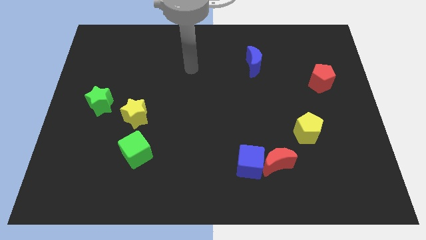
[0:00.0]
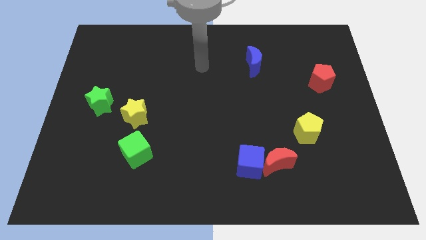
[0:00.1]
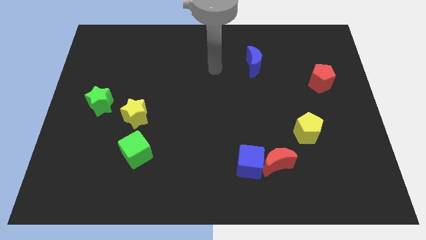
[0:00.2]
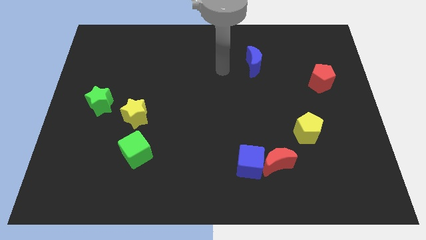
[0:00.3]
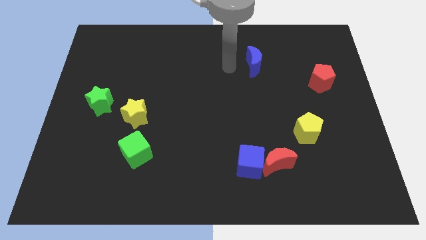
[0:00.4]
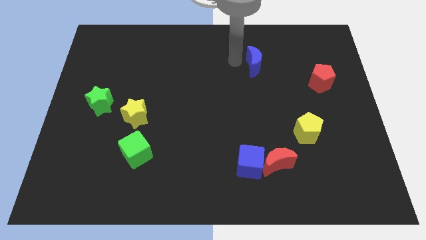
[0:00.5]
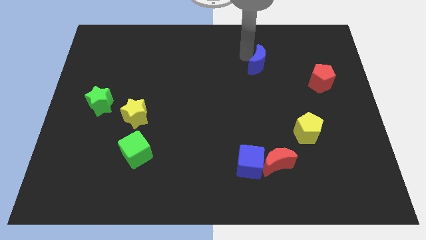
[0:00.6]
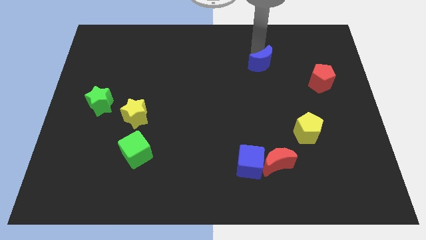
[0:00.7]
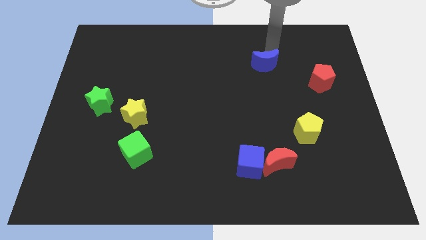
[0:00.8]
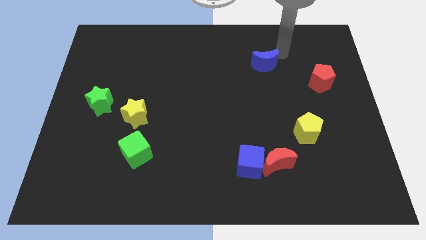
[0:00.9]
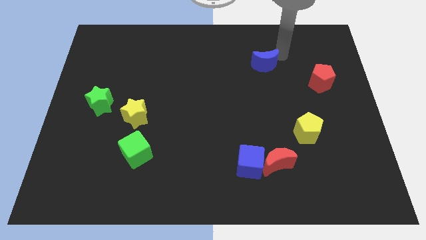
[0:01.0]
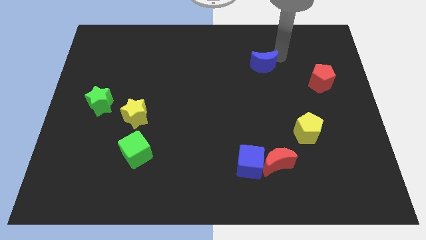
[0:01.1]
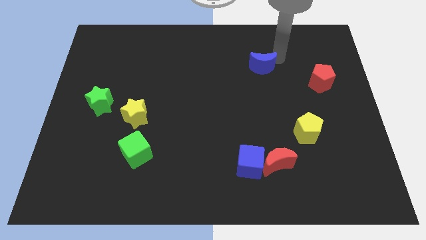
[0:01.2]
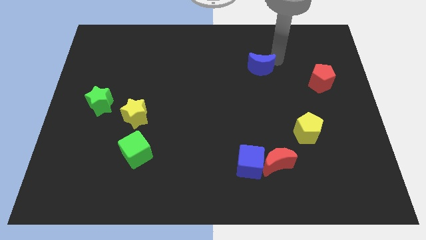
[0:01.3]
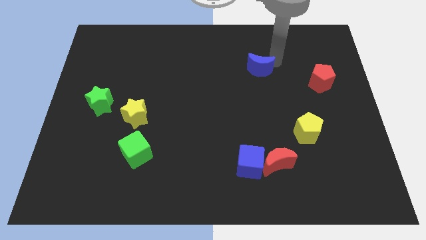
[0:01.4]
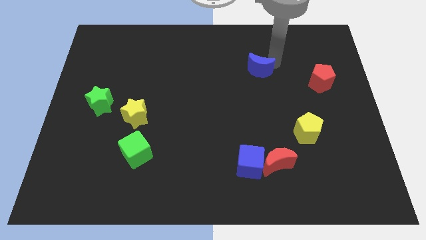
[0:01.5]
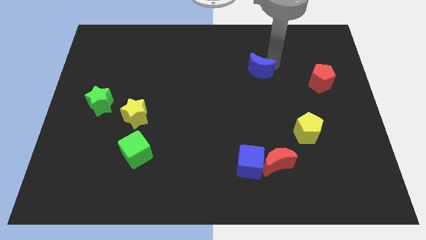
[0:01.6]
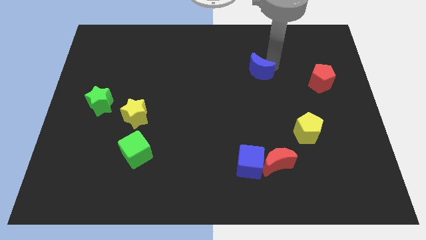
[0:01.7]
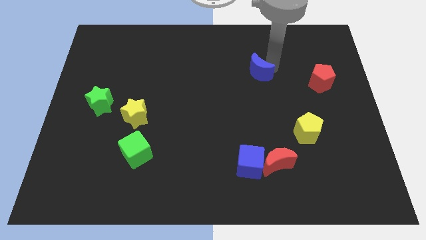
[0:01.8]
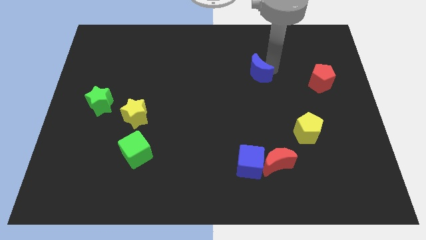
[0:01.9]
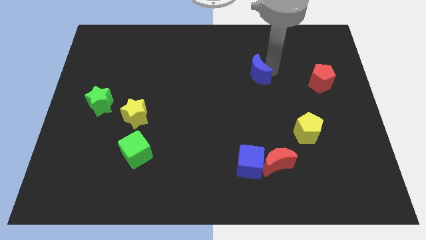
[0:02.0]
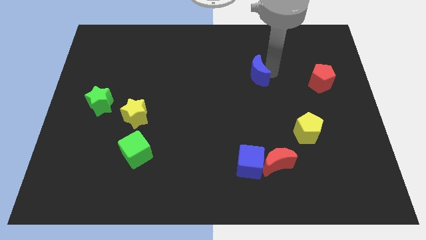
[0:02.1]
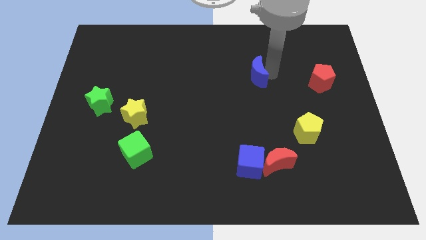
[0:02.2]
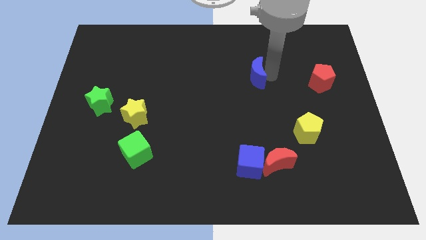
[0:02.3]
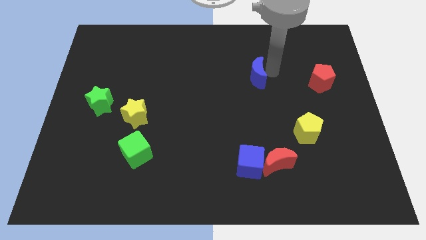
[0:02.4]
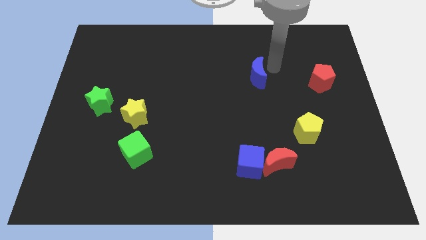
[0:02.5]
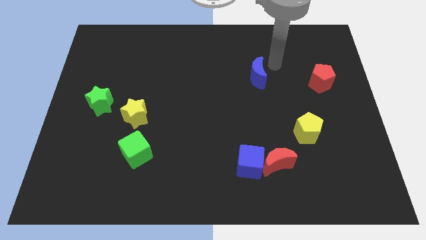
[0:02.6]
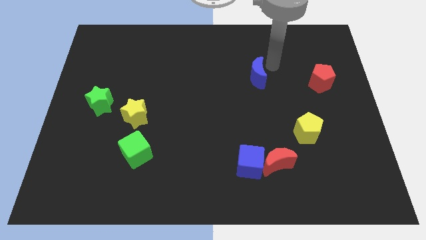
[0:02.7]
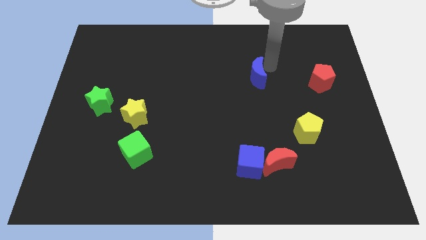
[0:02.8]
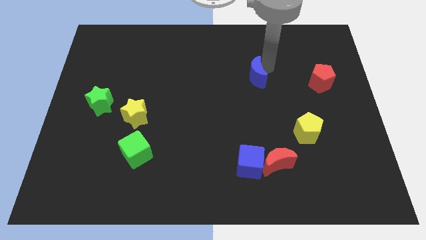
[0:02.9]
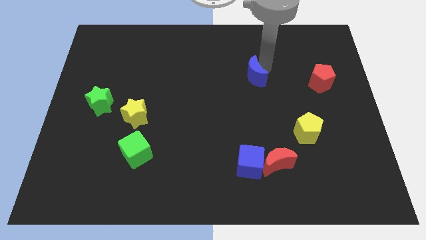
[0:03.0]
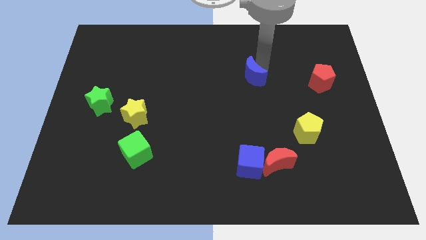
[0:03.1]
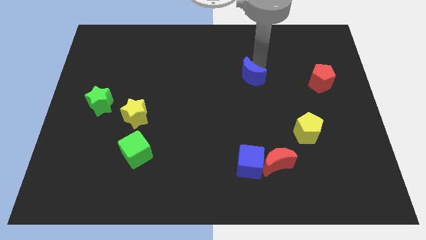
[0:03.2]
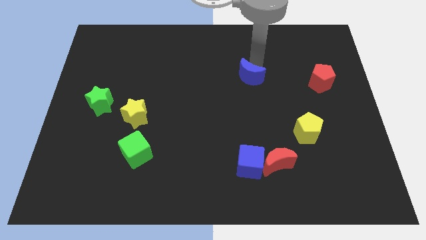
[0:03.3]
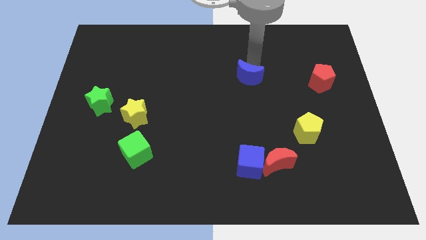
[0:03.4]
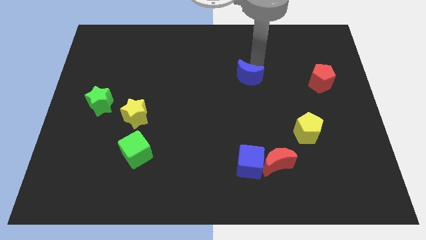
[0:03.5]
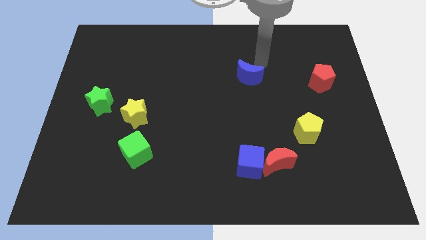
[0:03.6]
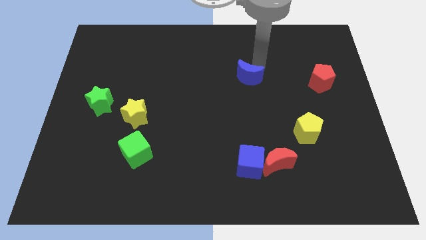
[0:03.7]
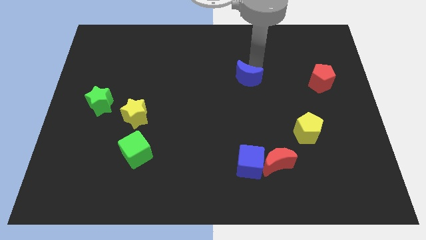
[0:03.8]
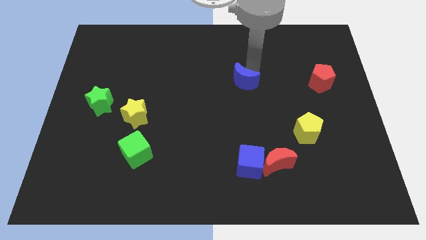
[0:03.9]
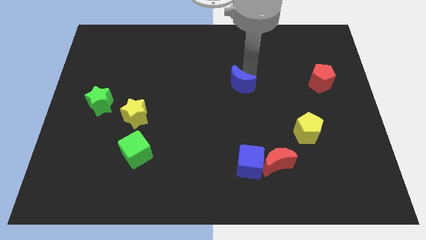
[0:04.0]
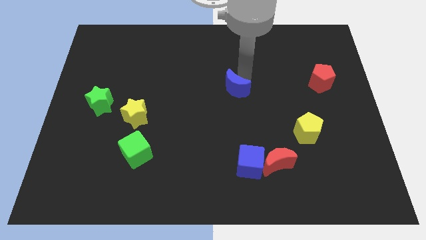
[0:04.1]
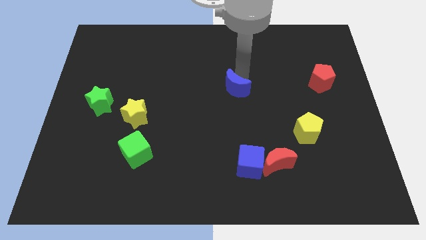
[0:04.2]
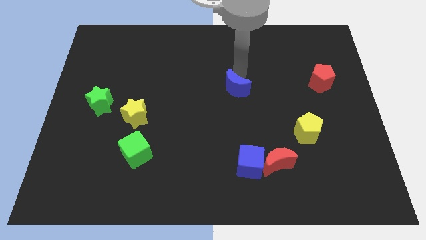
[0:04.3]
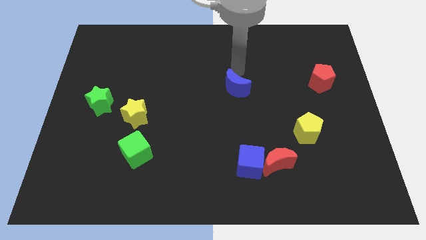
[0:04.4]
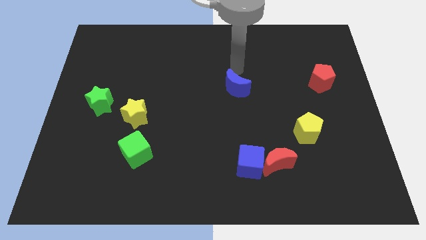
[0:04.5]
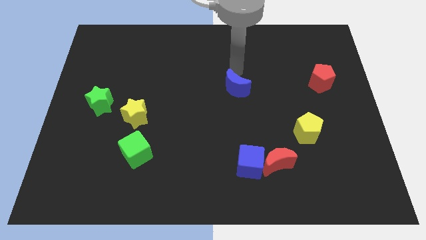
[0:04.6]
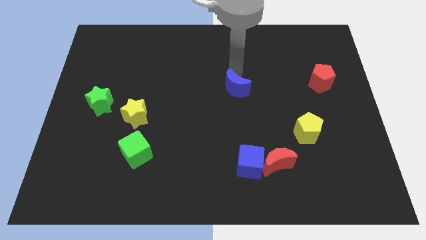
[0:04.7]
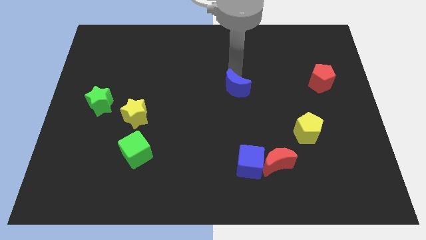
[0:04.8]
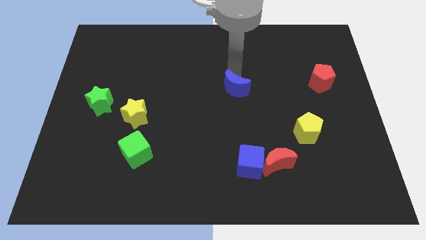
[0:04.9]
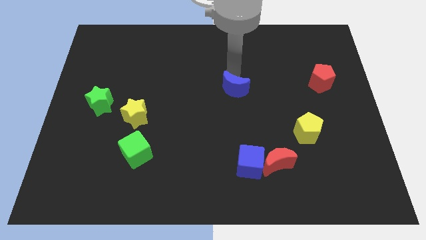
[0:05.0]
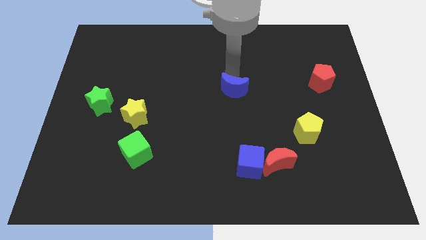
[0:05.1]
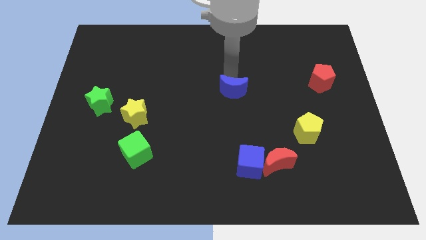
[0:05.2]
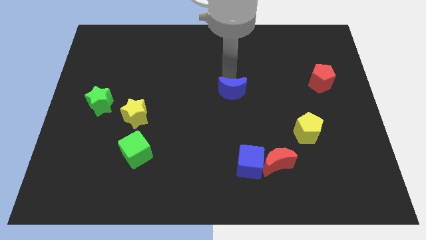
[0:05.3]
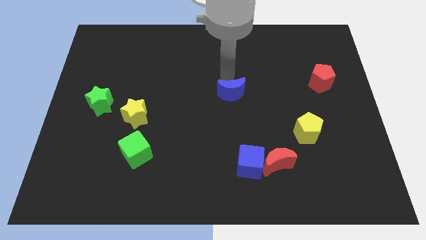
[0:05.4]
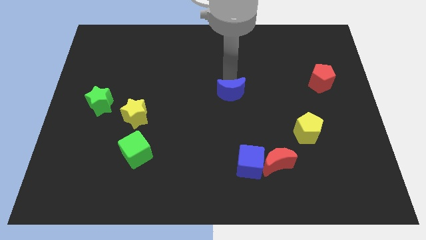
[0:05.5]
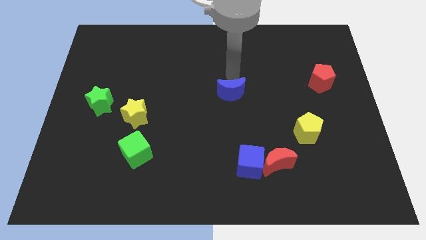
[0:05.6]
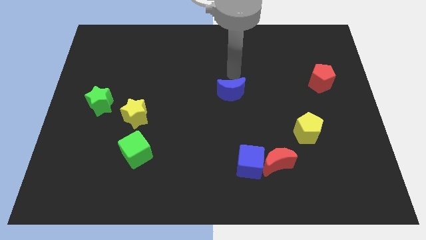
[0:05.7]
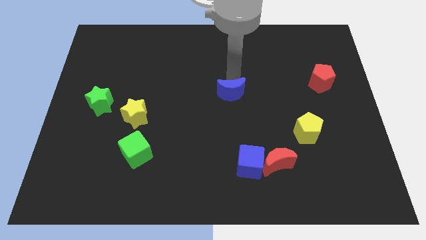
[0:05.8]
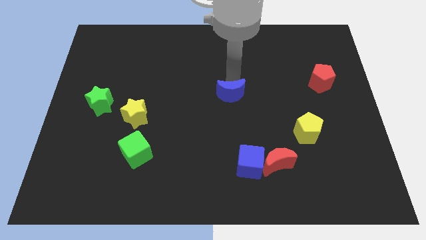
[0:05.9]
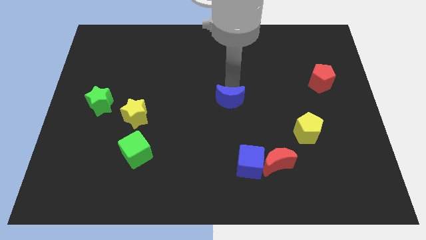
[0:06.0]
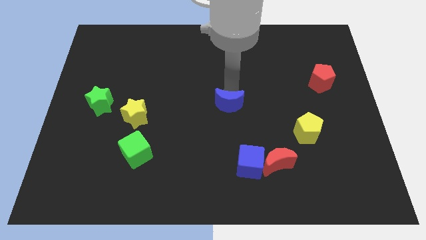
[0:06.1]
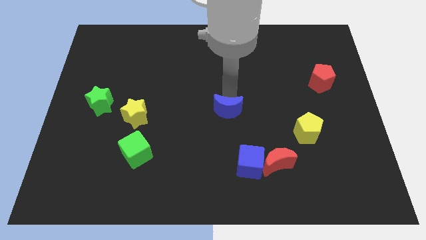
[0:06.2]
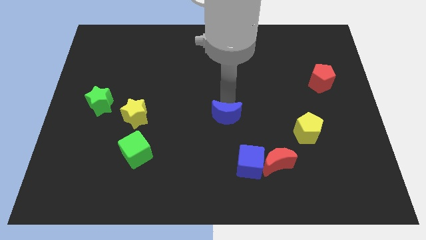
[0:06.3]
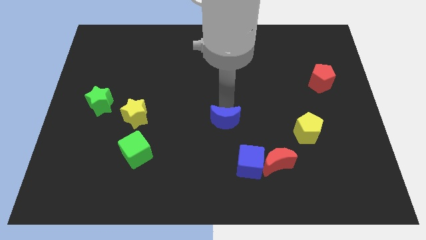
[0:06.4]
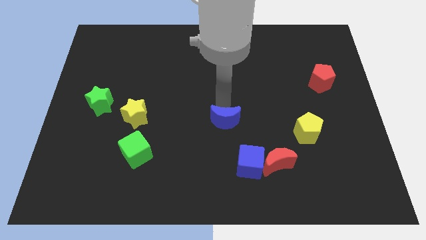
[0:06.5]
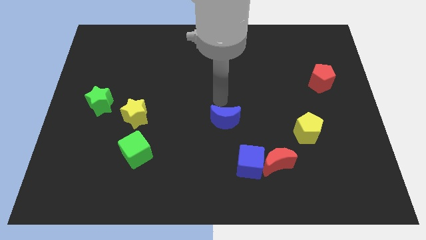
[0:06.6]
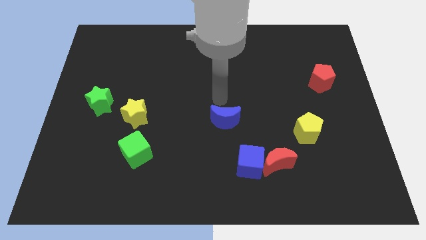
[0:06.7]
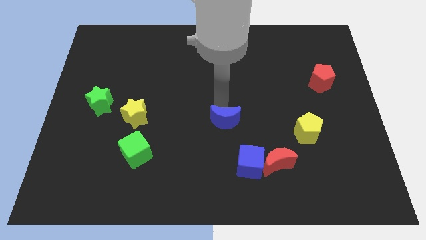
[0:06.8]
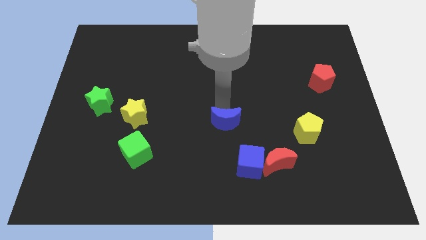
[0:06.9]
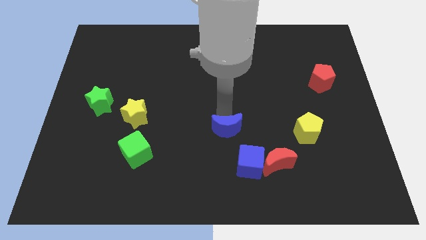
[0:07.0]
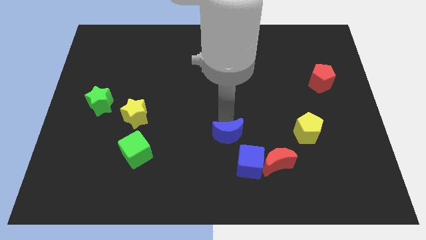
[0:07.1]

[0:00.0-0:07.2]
push the blue moon down

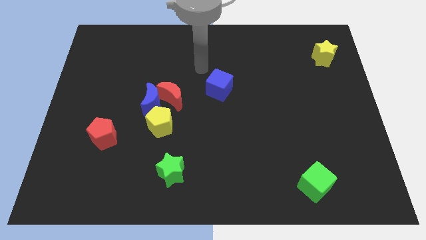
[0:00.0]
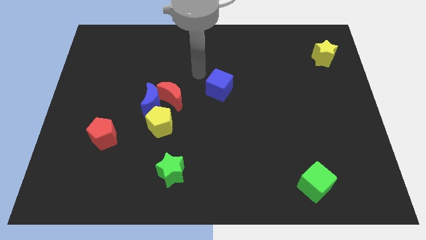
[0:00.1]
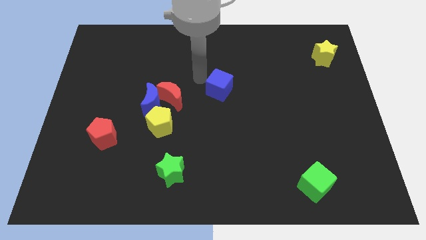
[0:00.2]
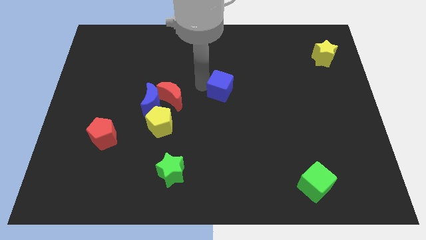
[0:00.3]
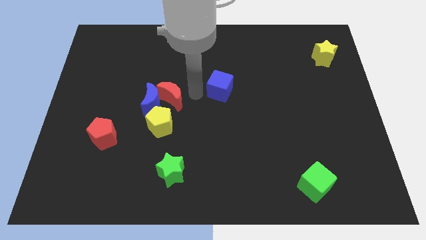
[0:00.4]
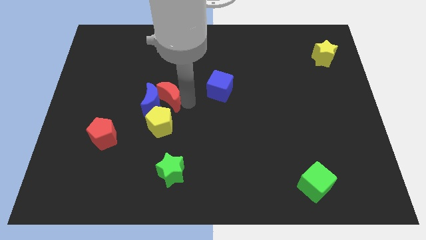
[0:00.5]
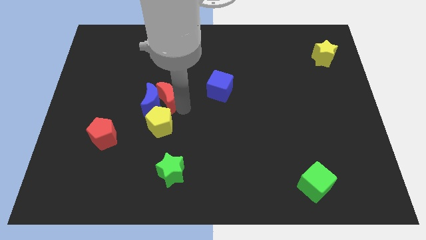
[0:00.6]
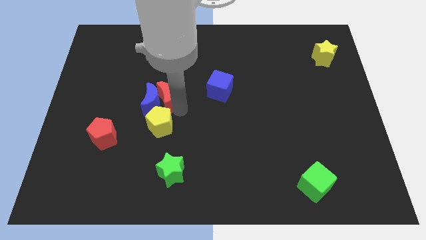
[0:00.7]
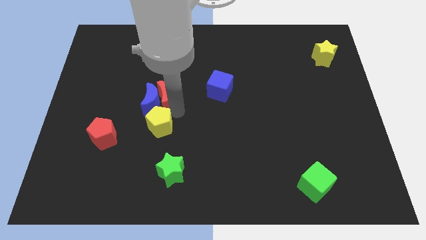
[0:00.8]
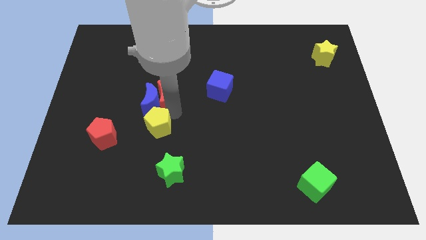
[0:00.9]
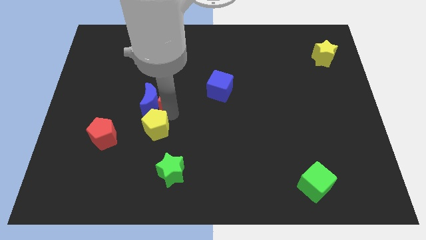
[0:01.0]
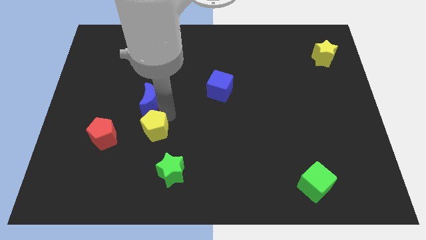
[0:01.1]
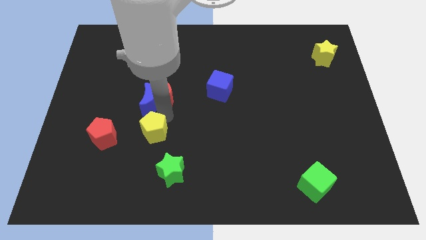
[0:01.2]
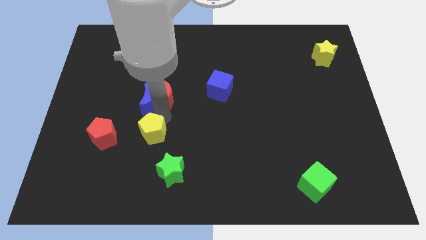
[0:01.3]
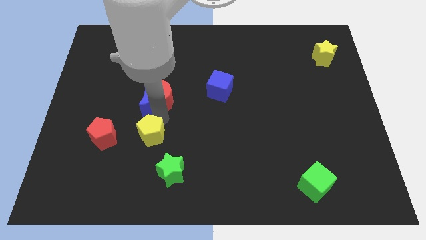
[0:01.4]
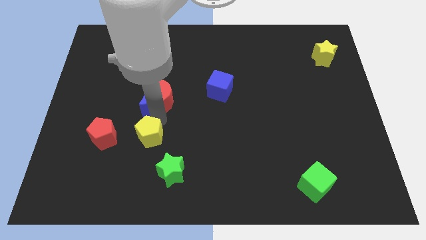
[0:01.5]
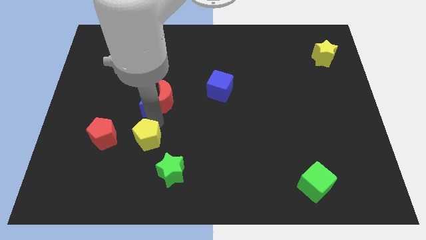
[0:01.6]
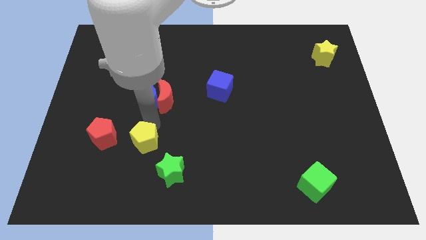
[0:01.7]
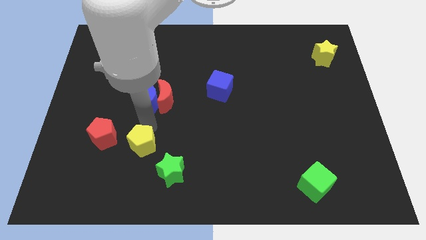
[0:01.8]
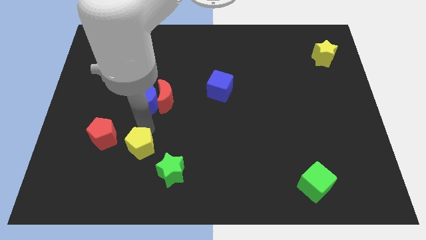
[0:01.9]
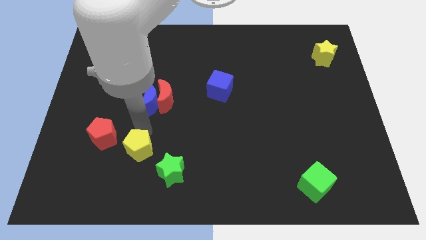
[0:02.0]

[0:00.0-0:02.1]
push the yellow pentagon down and to the left diagonally a little bit
